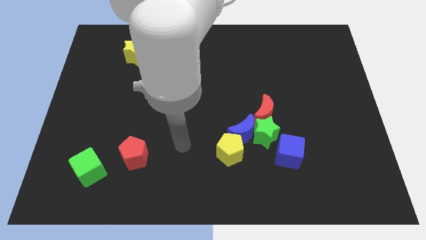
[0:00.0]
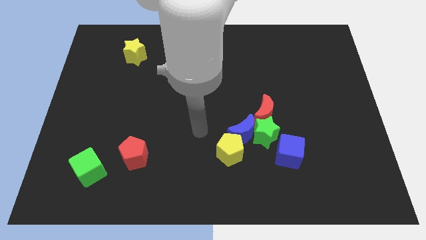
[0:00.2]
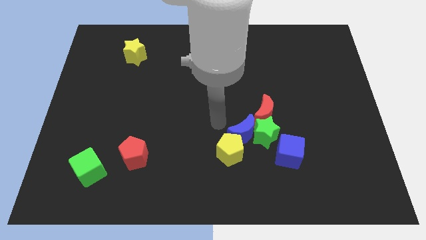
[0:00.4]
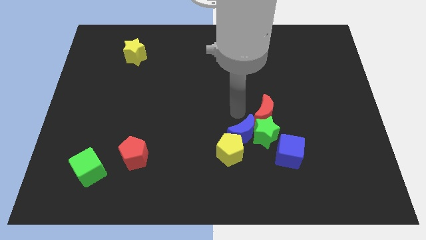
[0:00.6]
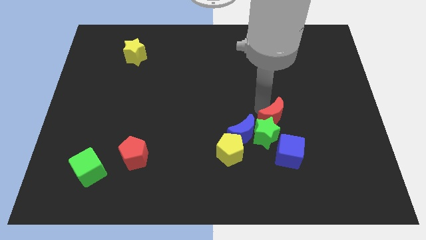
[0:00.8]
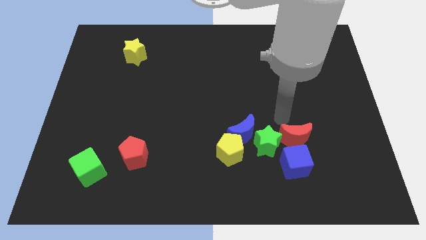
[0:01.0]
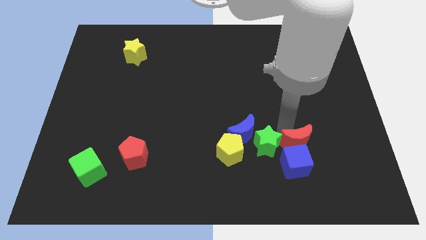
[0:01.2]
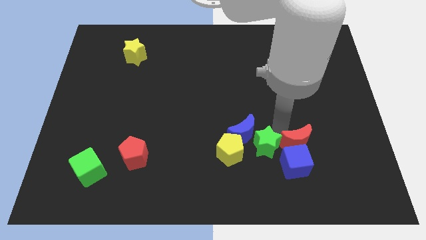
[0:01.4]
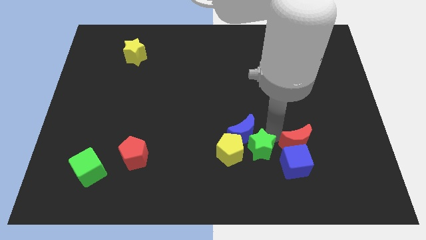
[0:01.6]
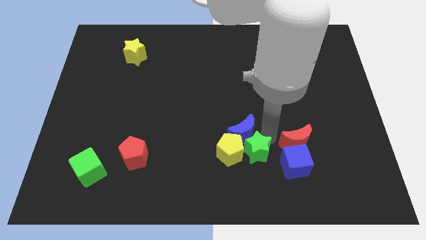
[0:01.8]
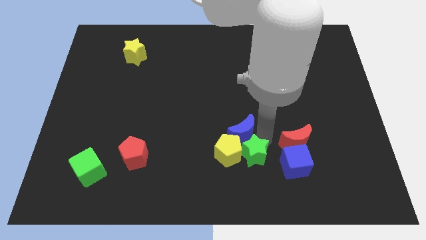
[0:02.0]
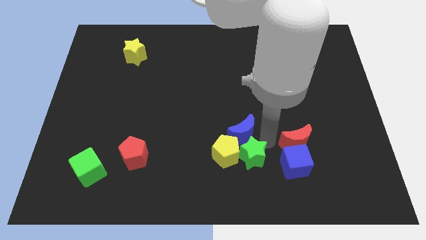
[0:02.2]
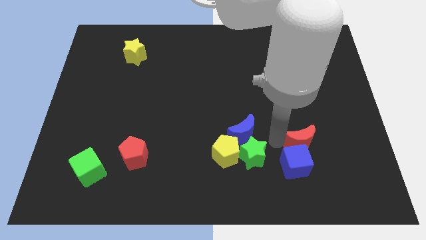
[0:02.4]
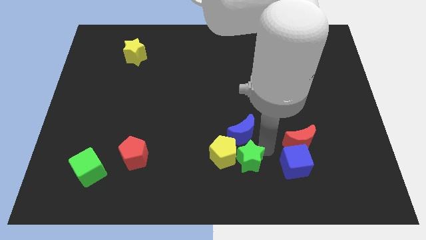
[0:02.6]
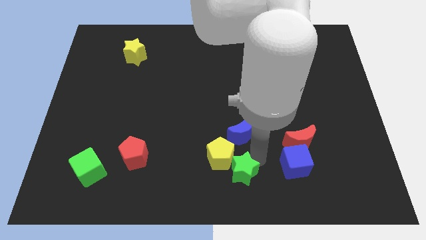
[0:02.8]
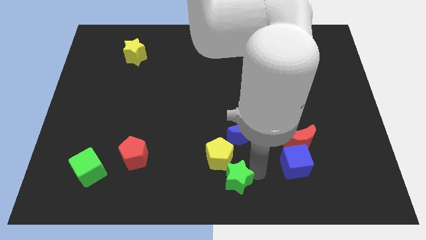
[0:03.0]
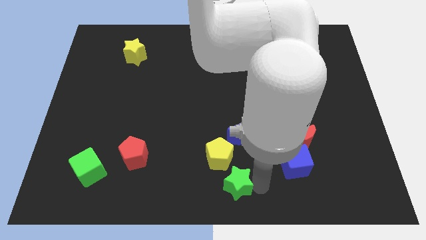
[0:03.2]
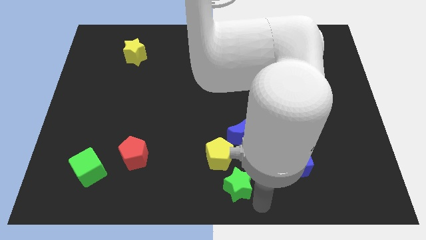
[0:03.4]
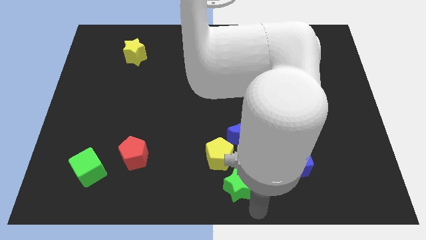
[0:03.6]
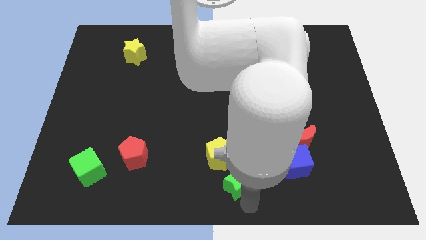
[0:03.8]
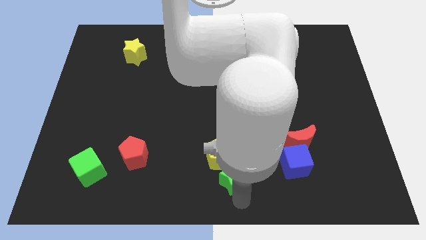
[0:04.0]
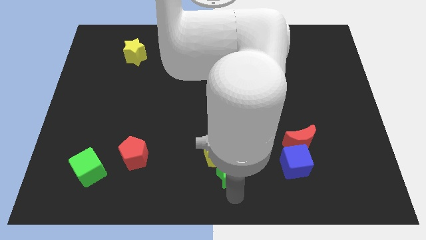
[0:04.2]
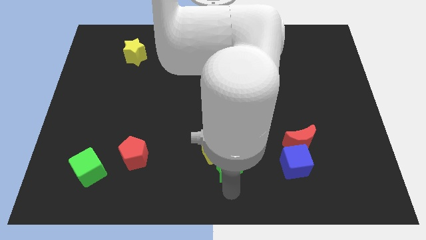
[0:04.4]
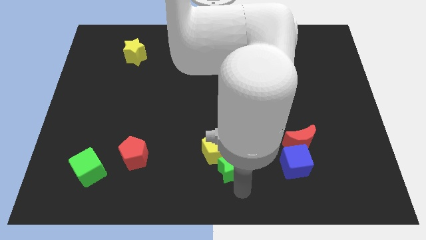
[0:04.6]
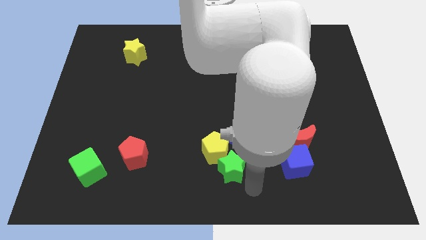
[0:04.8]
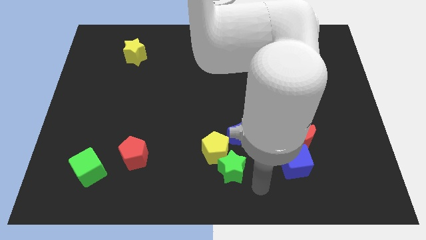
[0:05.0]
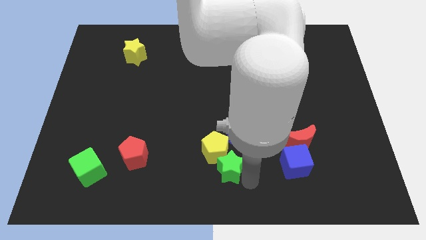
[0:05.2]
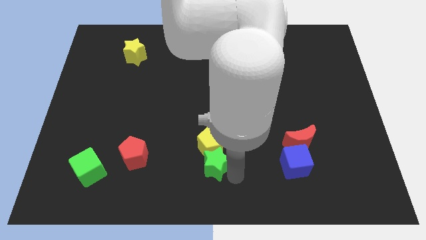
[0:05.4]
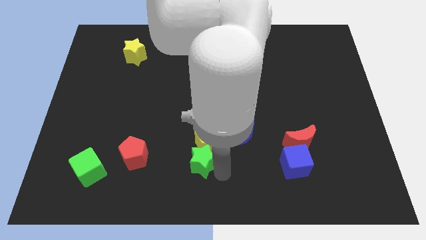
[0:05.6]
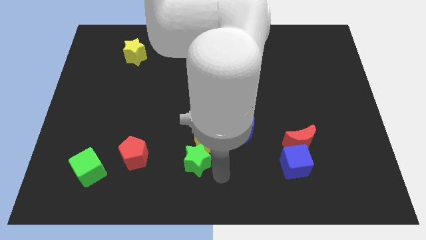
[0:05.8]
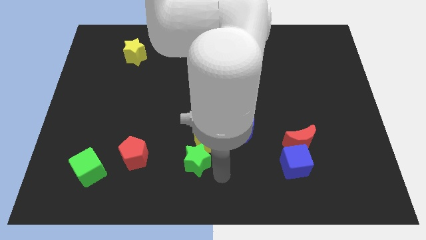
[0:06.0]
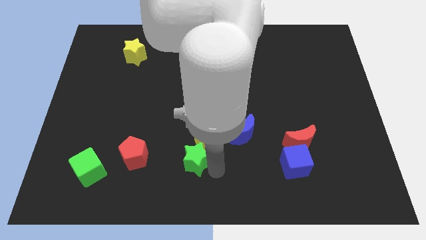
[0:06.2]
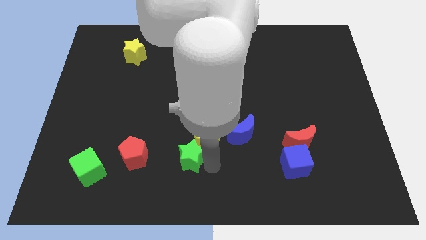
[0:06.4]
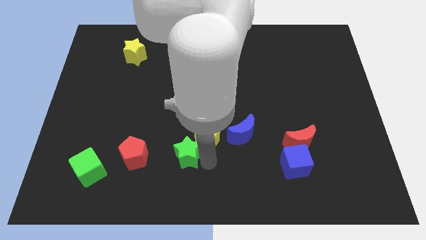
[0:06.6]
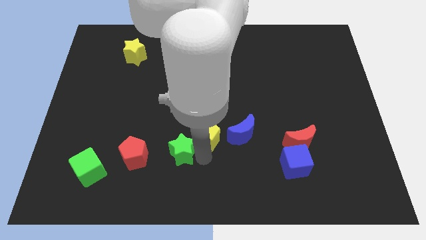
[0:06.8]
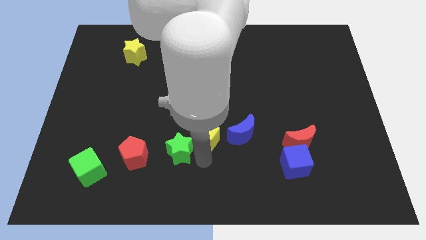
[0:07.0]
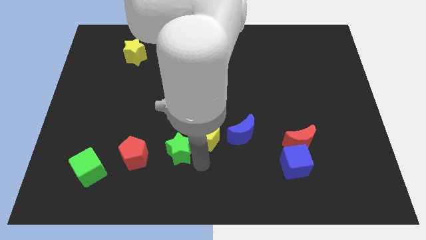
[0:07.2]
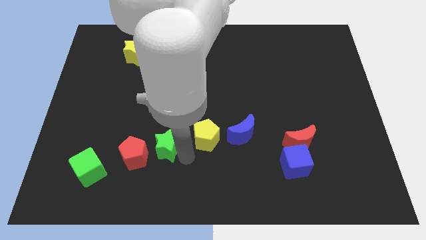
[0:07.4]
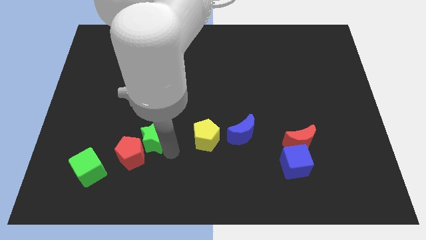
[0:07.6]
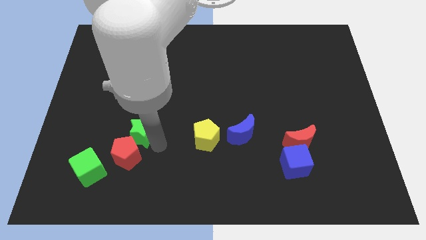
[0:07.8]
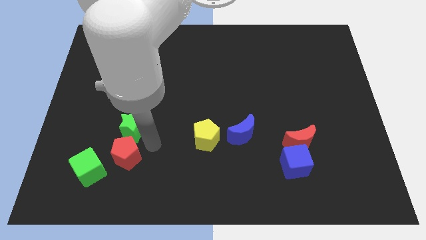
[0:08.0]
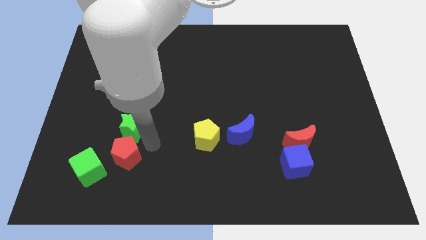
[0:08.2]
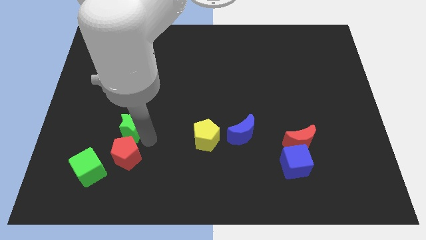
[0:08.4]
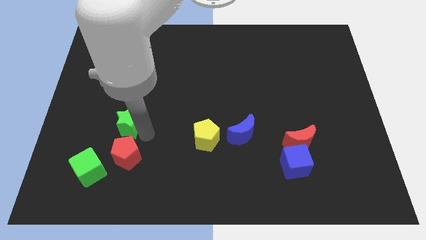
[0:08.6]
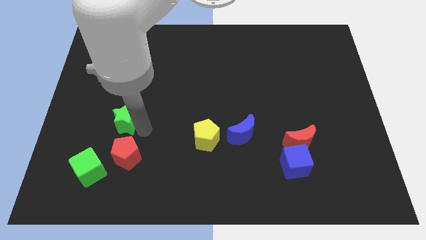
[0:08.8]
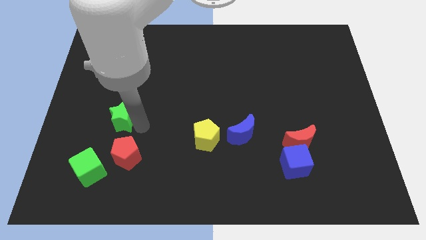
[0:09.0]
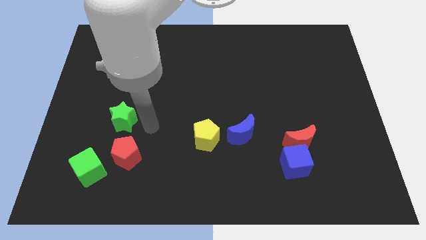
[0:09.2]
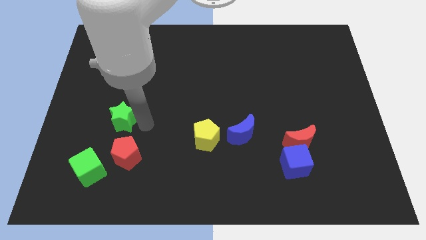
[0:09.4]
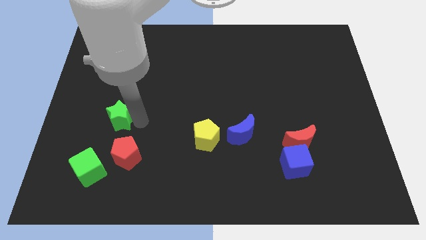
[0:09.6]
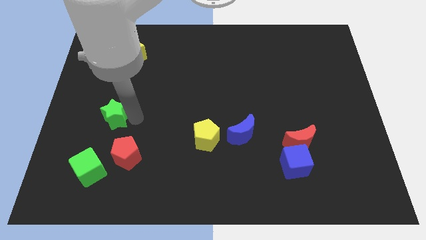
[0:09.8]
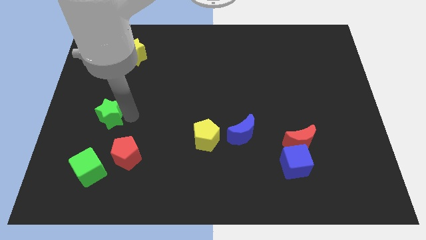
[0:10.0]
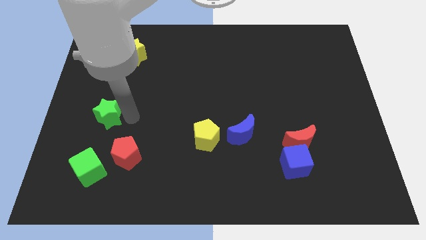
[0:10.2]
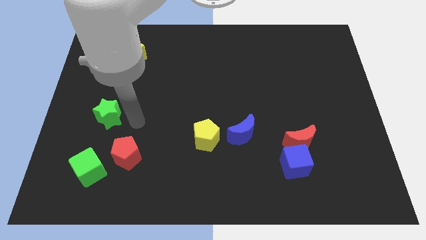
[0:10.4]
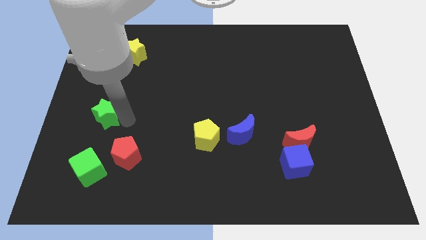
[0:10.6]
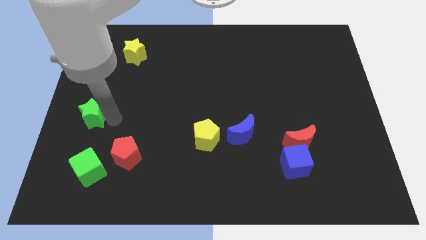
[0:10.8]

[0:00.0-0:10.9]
slide the green star to the left side of the board
